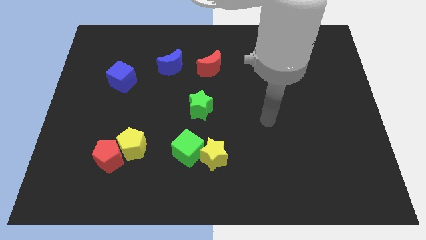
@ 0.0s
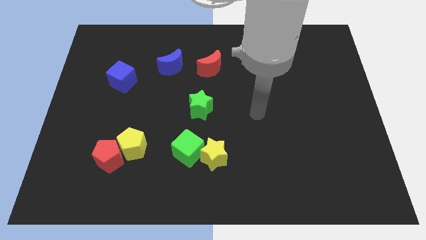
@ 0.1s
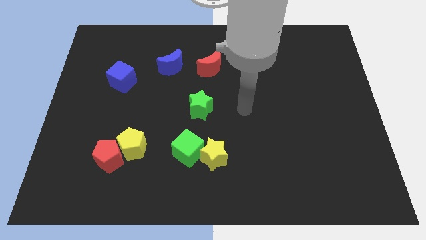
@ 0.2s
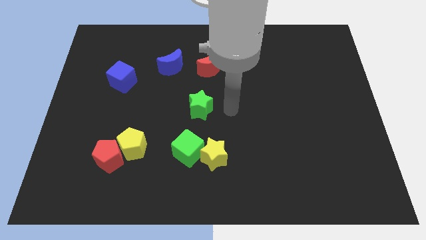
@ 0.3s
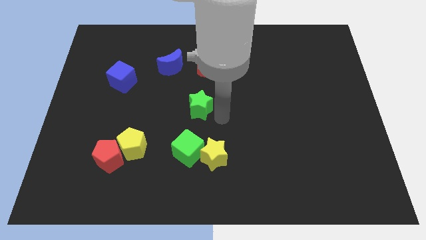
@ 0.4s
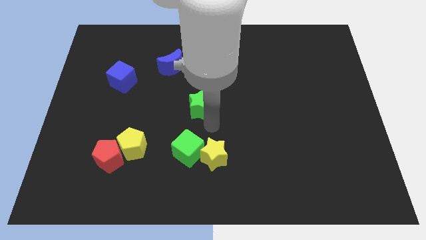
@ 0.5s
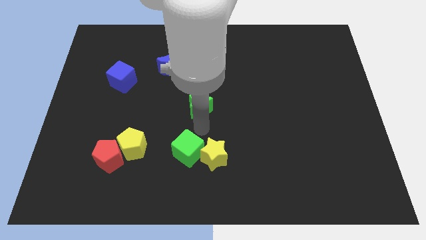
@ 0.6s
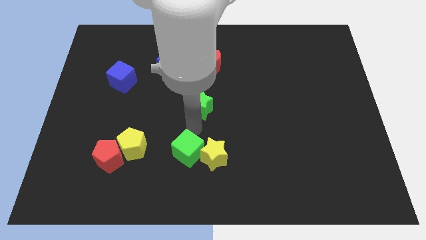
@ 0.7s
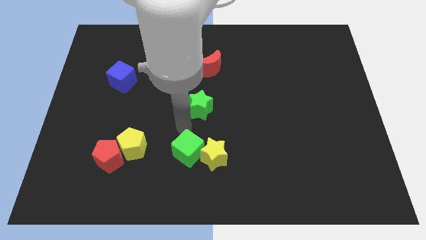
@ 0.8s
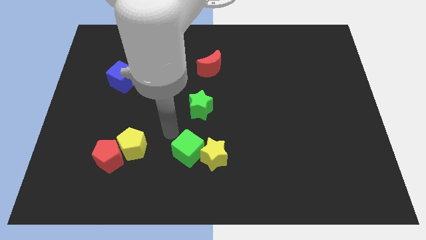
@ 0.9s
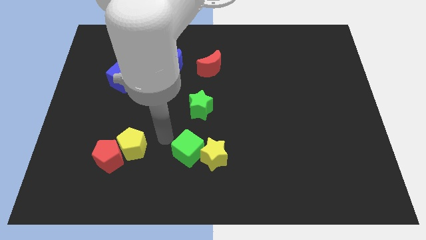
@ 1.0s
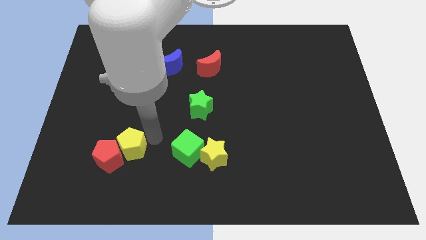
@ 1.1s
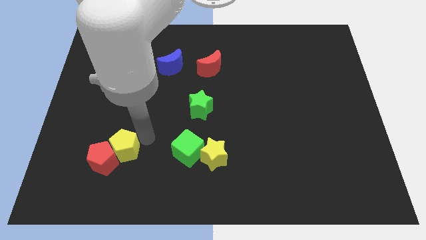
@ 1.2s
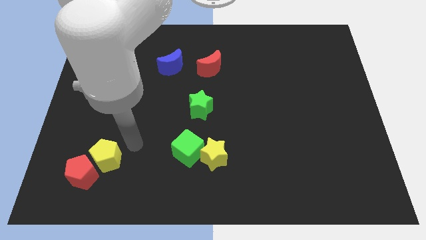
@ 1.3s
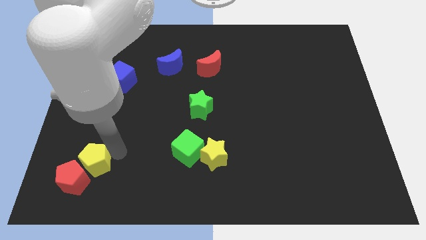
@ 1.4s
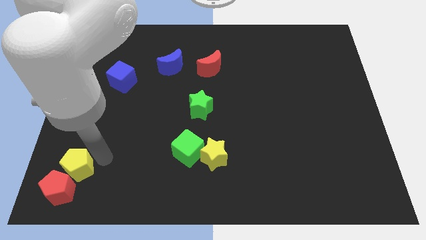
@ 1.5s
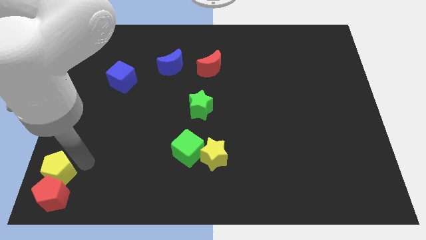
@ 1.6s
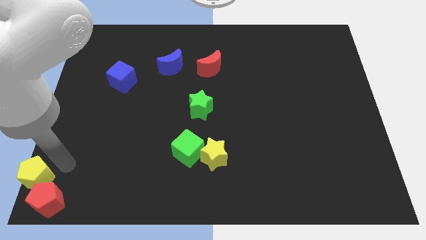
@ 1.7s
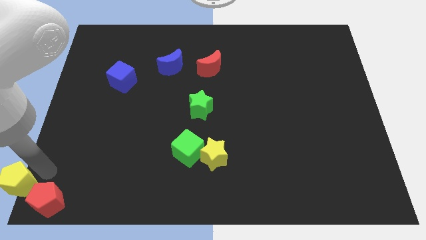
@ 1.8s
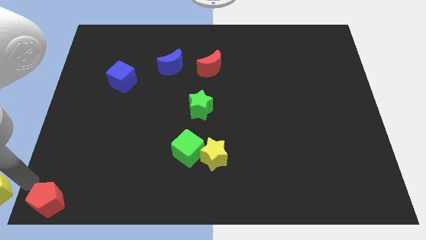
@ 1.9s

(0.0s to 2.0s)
pull the red pentagon apart from the yellow pentagon

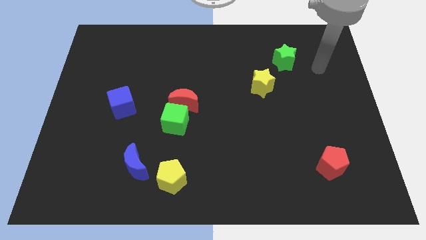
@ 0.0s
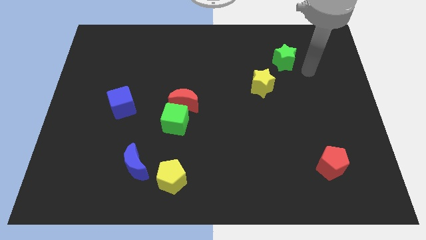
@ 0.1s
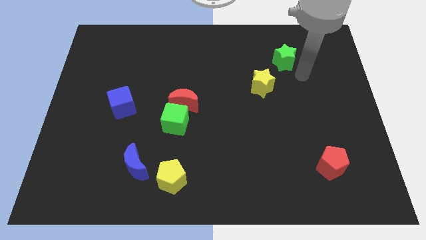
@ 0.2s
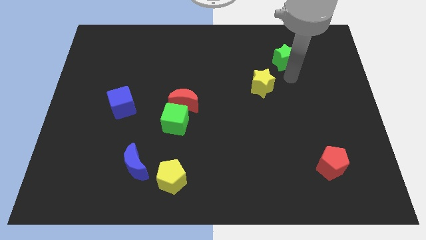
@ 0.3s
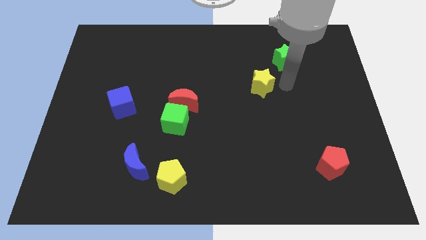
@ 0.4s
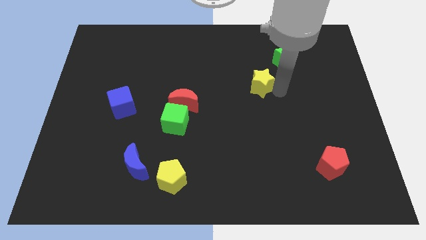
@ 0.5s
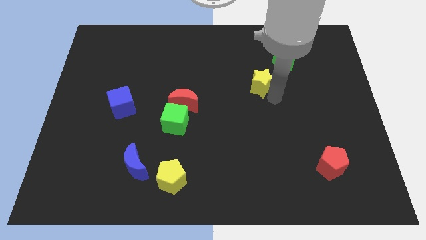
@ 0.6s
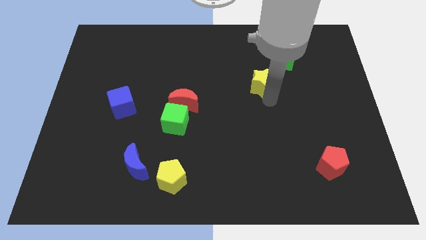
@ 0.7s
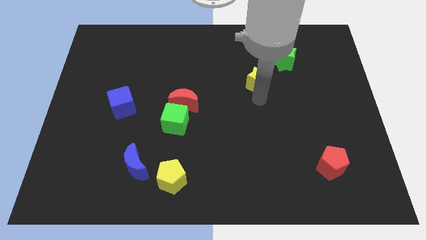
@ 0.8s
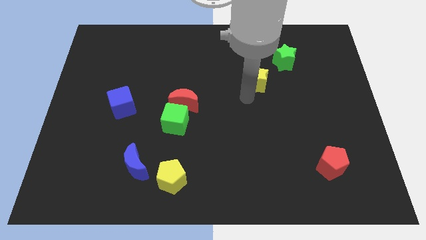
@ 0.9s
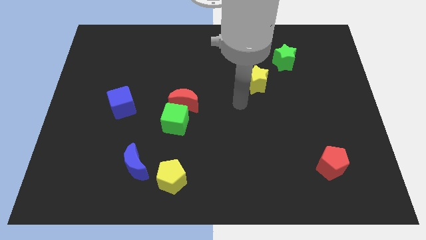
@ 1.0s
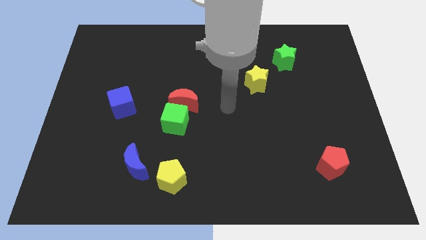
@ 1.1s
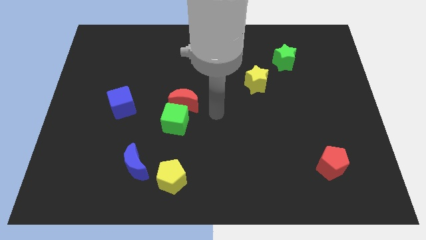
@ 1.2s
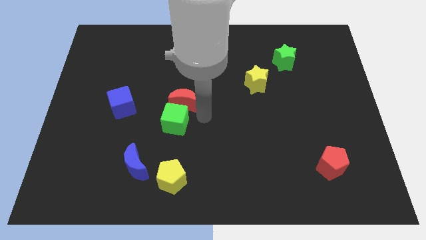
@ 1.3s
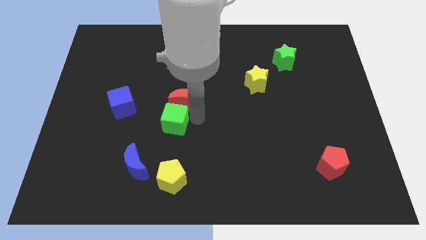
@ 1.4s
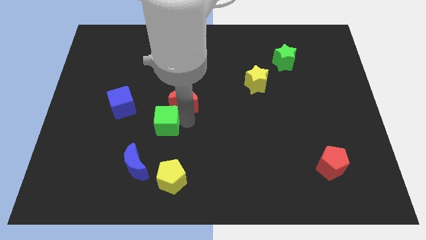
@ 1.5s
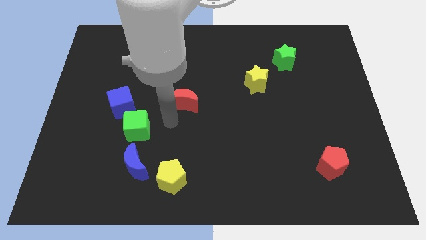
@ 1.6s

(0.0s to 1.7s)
move the red moon away from the green cube

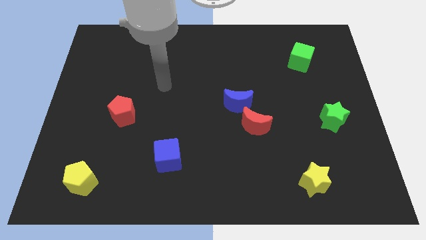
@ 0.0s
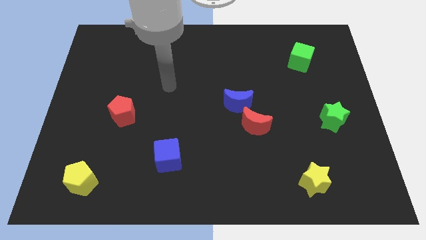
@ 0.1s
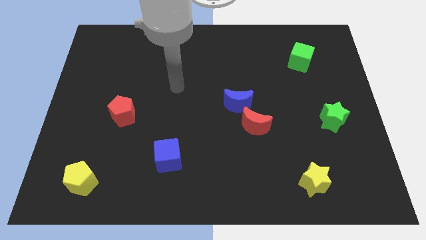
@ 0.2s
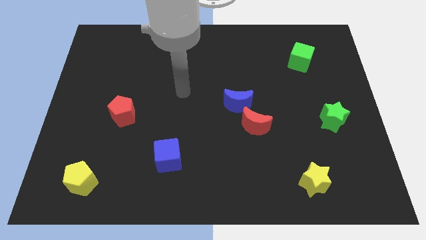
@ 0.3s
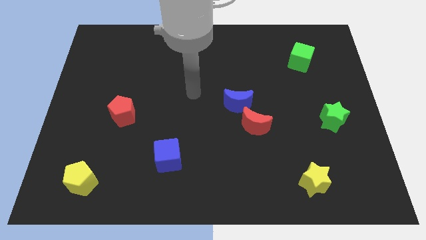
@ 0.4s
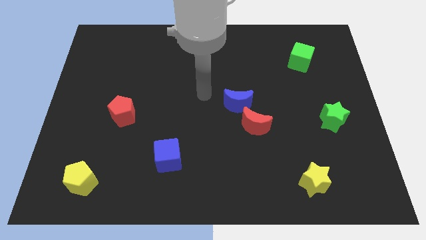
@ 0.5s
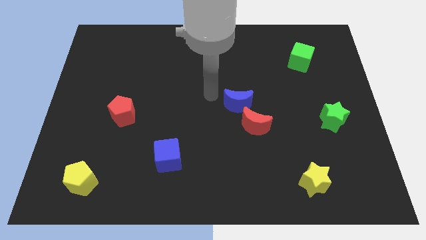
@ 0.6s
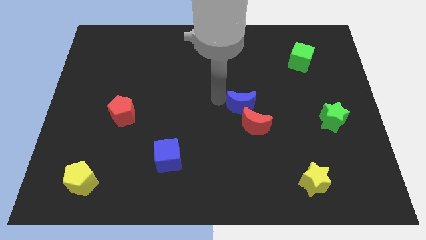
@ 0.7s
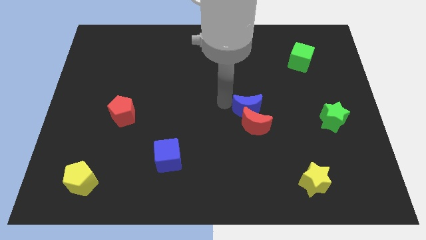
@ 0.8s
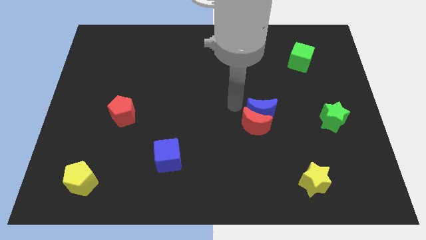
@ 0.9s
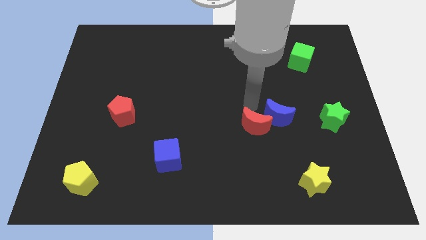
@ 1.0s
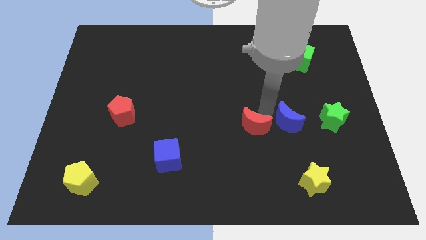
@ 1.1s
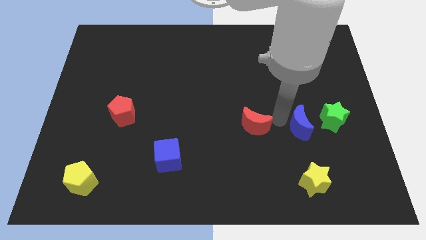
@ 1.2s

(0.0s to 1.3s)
separate the red moon from the blue moon

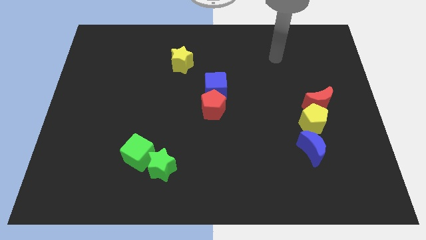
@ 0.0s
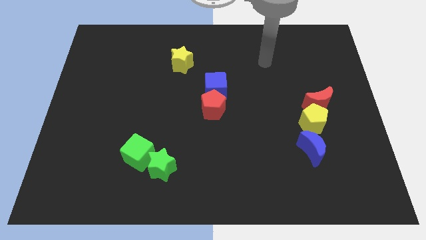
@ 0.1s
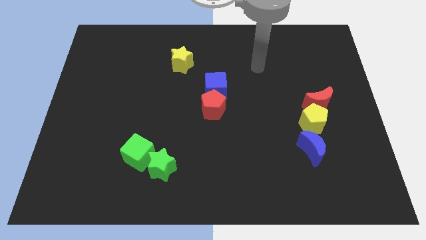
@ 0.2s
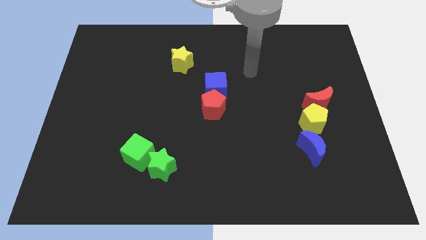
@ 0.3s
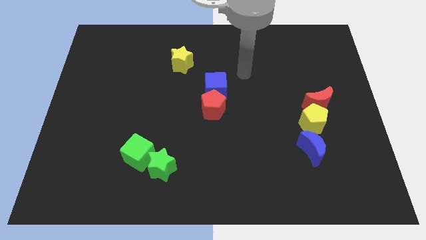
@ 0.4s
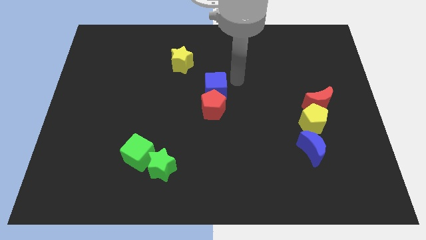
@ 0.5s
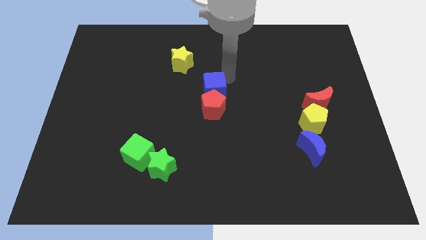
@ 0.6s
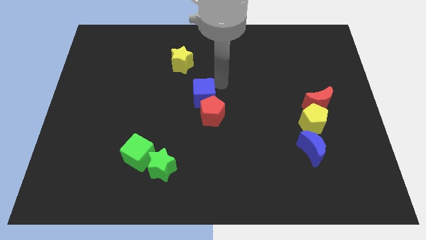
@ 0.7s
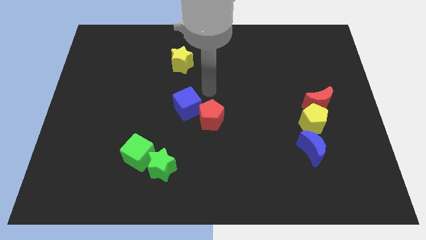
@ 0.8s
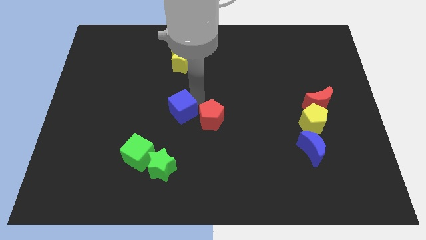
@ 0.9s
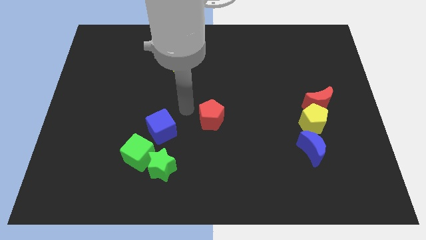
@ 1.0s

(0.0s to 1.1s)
pull the red pentagon apart from the blue cube

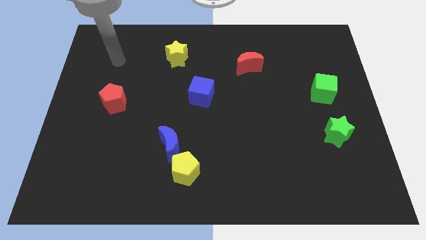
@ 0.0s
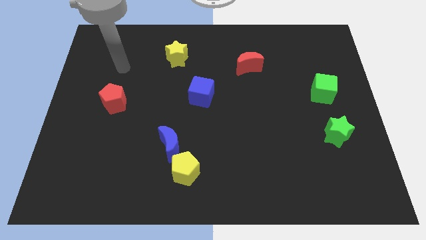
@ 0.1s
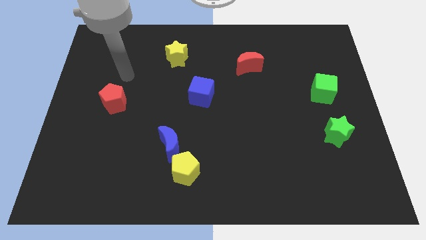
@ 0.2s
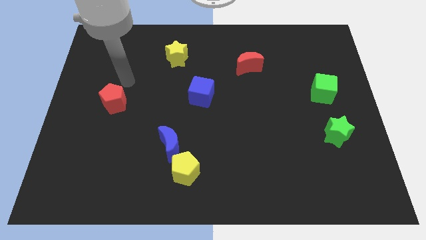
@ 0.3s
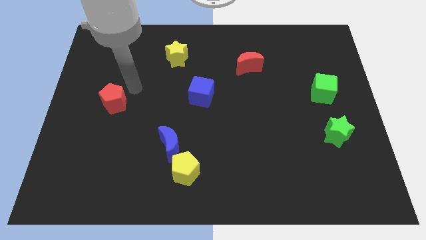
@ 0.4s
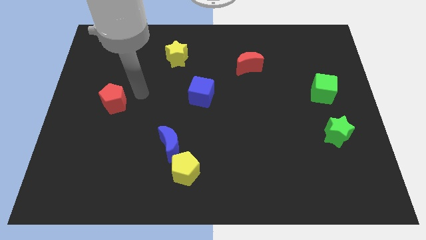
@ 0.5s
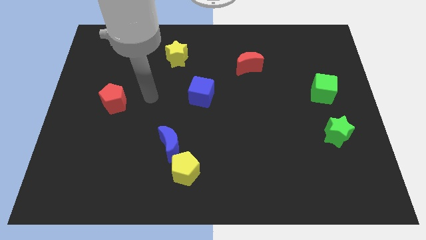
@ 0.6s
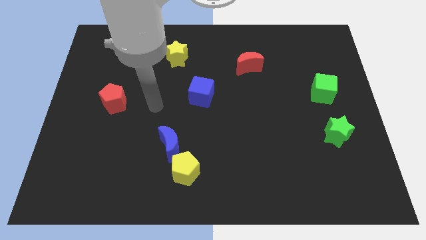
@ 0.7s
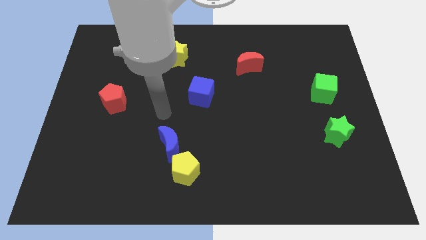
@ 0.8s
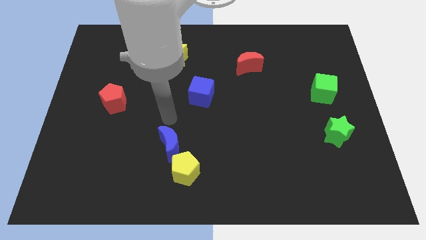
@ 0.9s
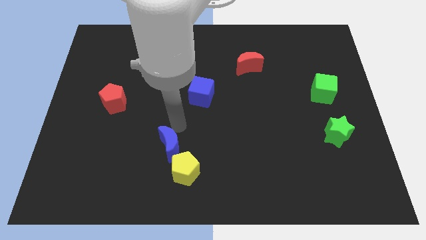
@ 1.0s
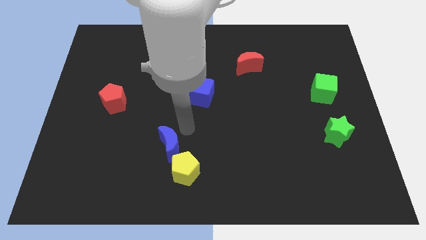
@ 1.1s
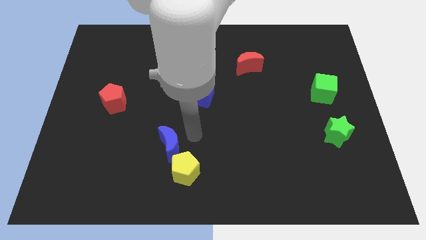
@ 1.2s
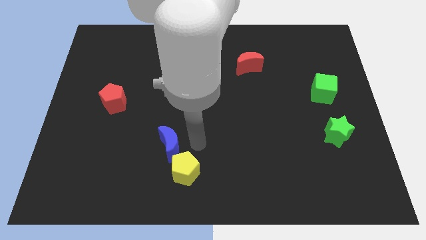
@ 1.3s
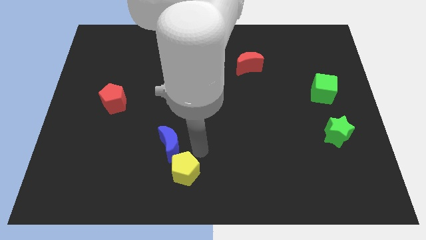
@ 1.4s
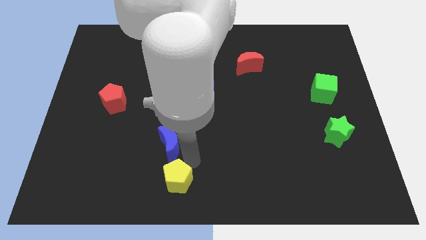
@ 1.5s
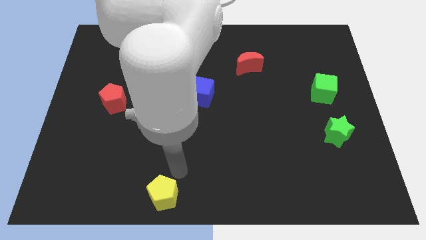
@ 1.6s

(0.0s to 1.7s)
pull the blue moon apart from the yellow pentagon

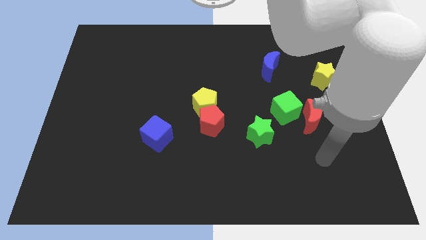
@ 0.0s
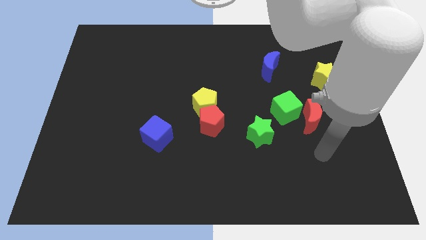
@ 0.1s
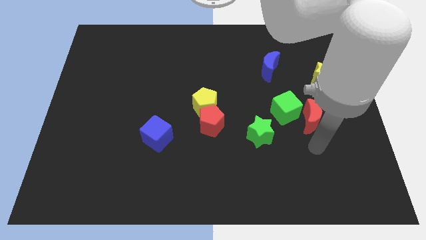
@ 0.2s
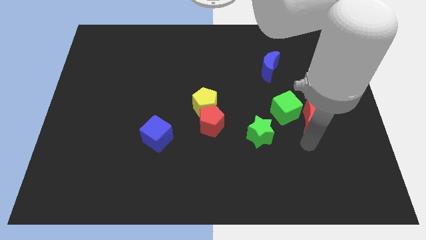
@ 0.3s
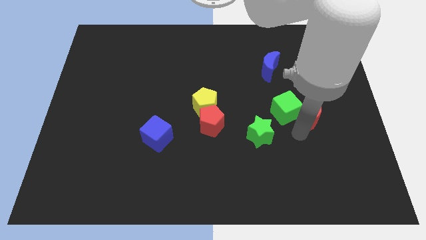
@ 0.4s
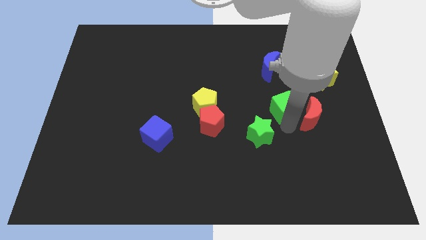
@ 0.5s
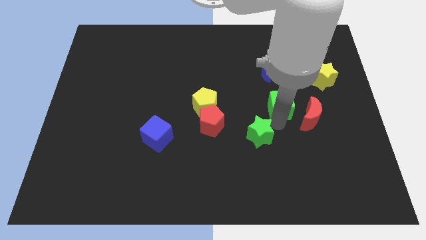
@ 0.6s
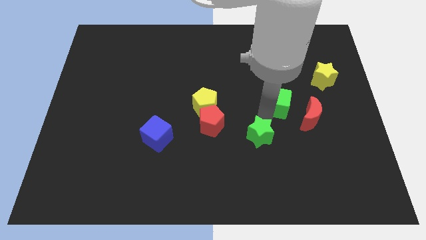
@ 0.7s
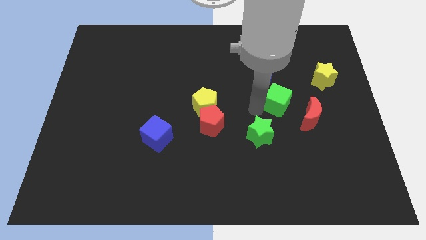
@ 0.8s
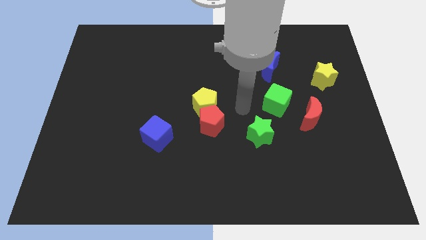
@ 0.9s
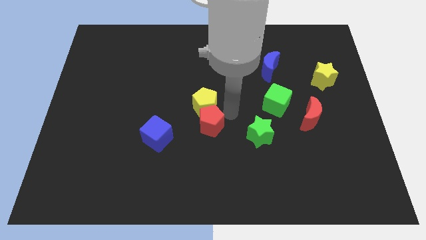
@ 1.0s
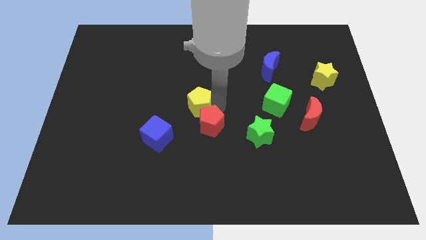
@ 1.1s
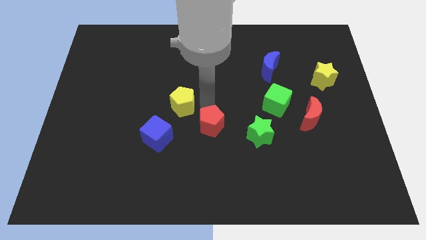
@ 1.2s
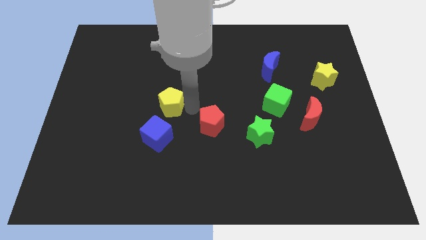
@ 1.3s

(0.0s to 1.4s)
move the red pentagon away from the yellow pentagon
